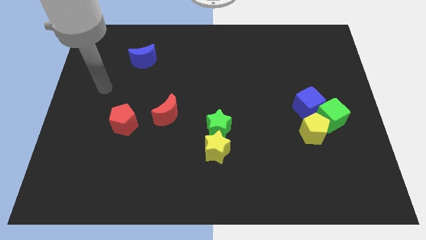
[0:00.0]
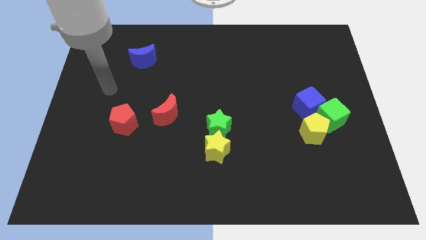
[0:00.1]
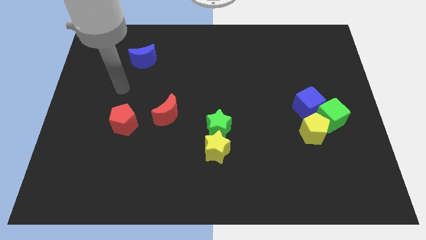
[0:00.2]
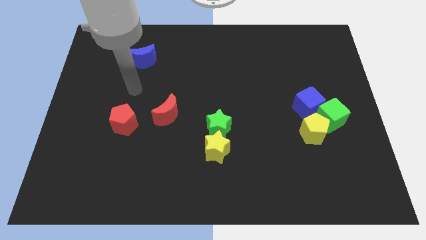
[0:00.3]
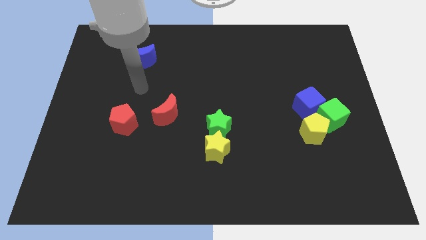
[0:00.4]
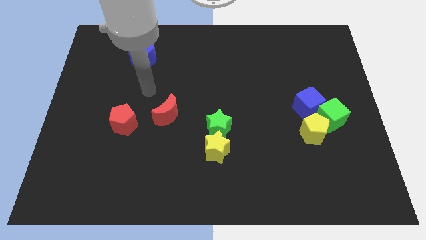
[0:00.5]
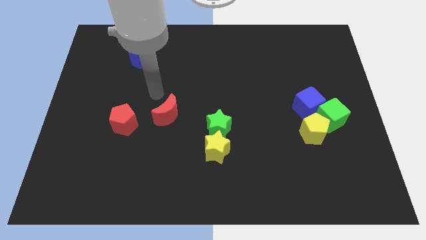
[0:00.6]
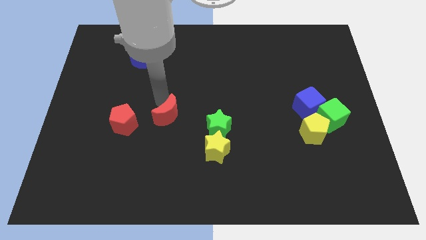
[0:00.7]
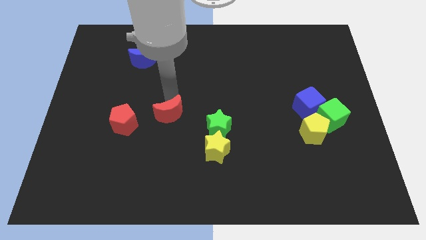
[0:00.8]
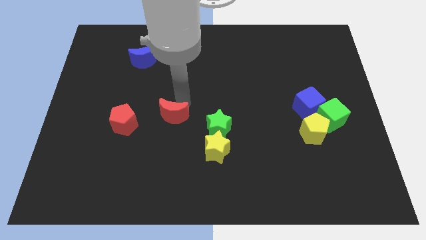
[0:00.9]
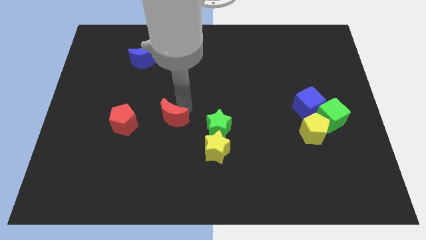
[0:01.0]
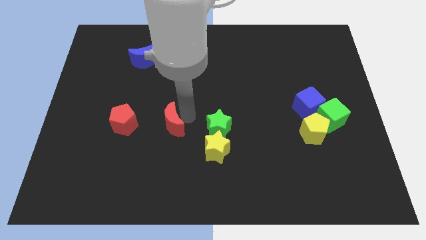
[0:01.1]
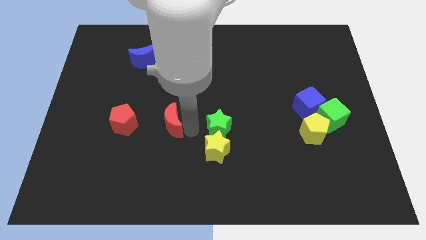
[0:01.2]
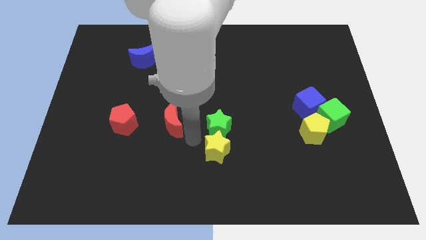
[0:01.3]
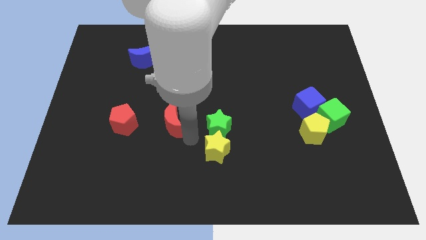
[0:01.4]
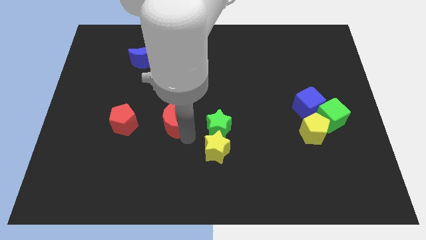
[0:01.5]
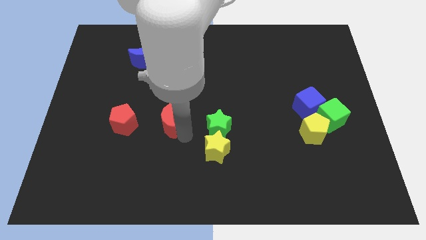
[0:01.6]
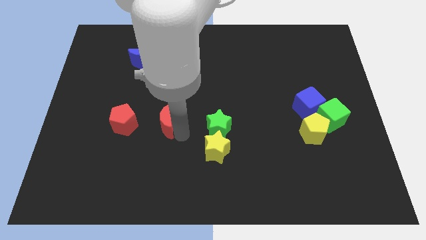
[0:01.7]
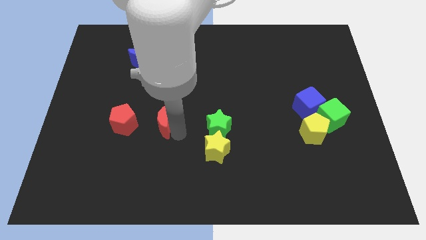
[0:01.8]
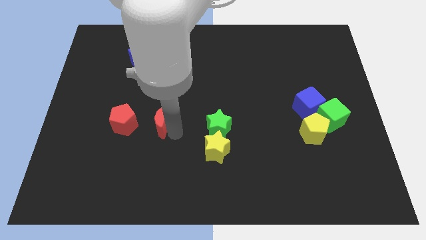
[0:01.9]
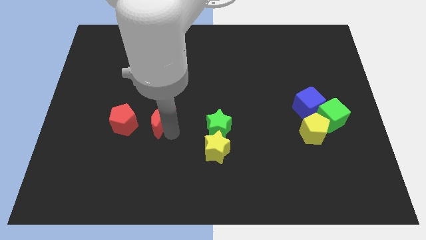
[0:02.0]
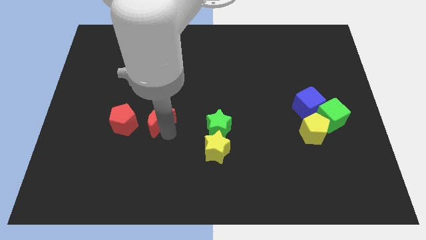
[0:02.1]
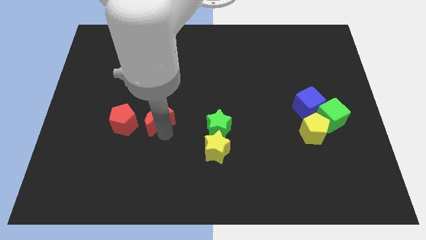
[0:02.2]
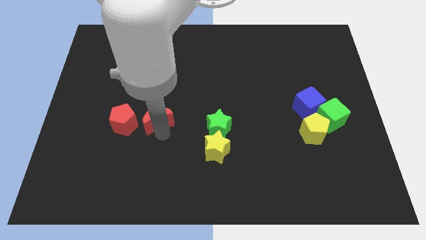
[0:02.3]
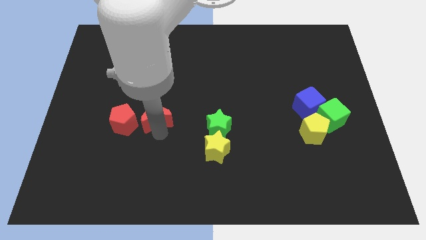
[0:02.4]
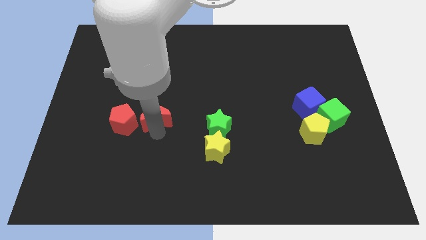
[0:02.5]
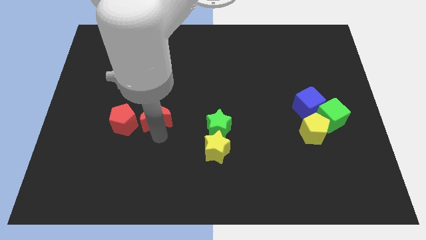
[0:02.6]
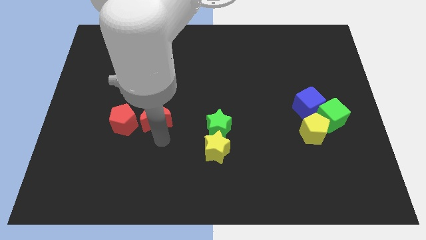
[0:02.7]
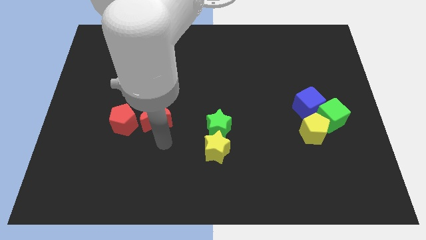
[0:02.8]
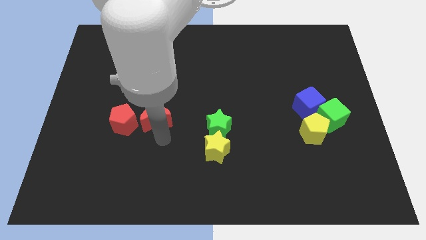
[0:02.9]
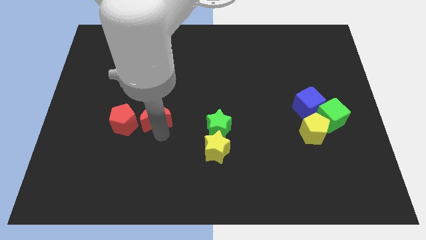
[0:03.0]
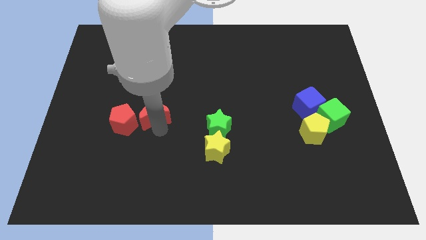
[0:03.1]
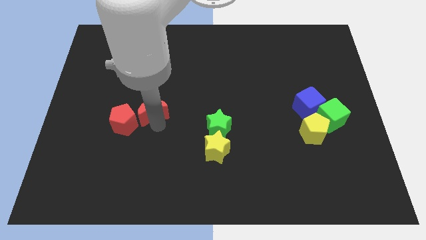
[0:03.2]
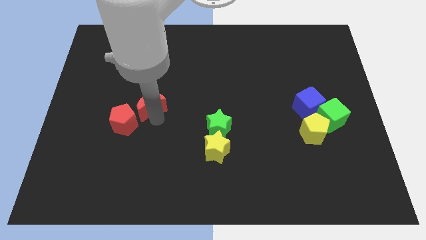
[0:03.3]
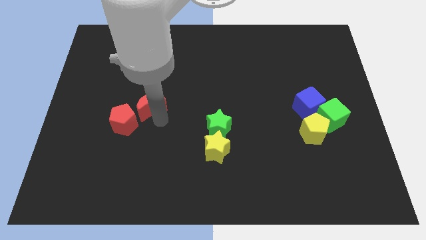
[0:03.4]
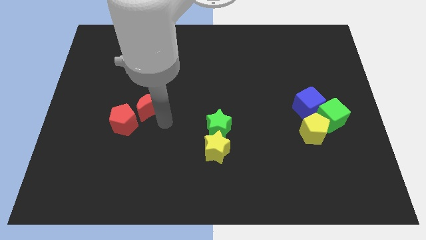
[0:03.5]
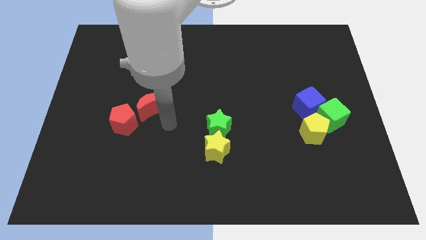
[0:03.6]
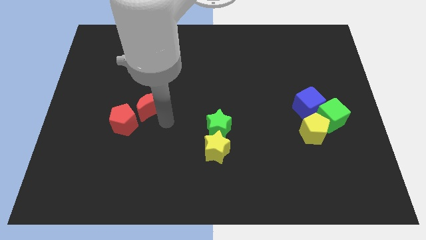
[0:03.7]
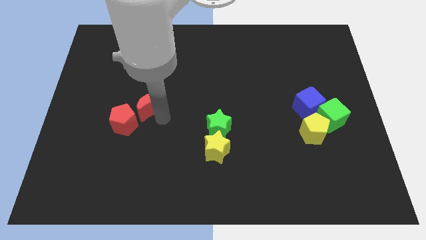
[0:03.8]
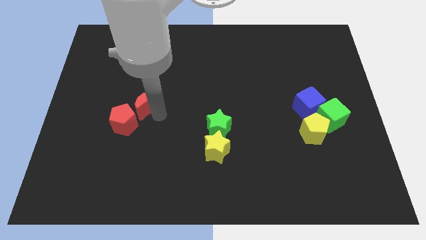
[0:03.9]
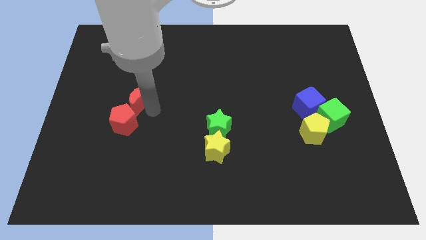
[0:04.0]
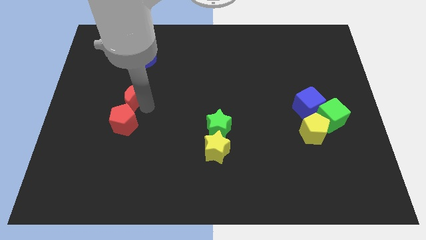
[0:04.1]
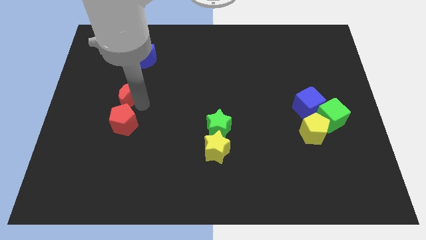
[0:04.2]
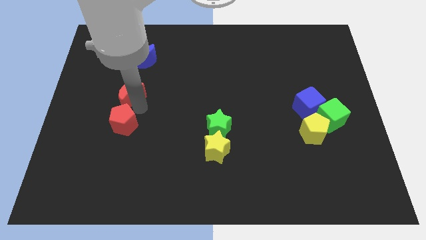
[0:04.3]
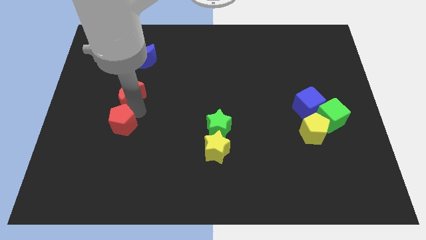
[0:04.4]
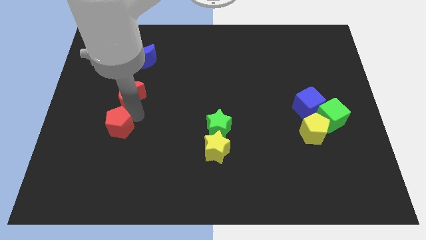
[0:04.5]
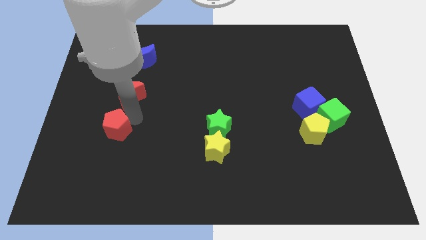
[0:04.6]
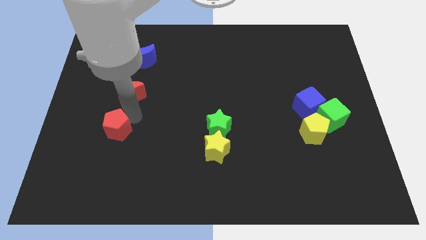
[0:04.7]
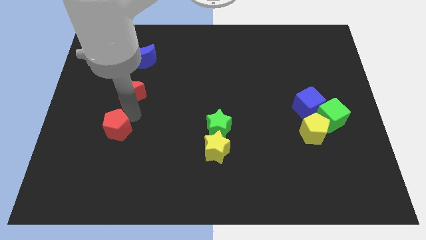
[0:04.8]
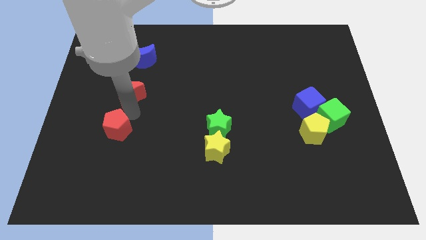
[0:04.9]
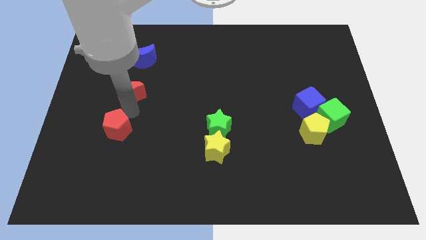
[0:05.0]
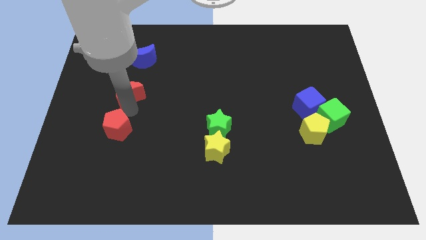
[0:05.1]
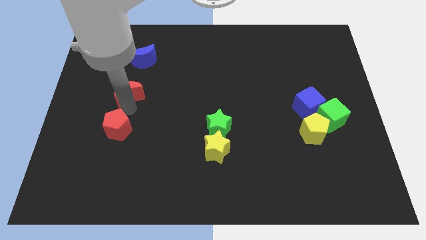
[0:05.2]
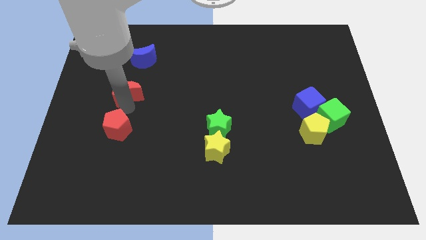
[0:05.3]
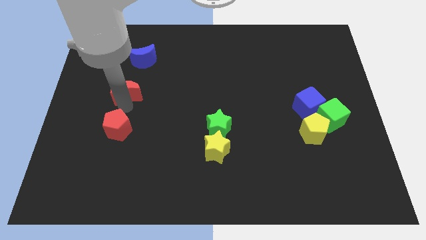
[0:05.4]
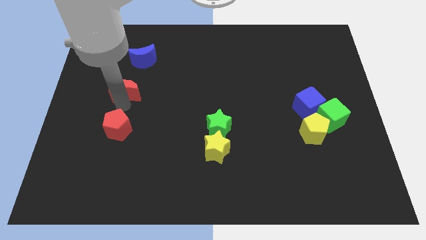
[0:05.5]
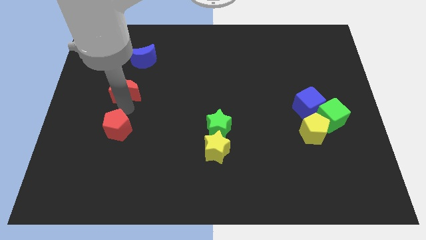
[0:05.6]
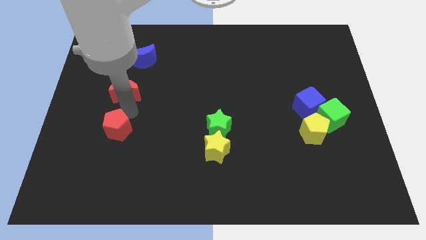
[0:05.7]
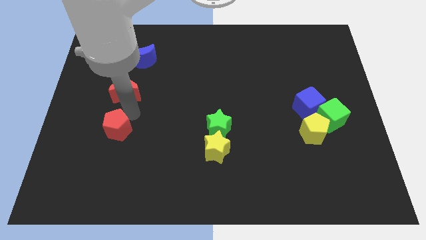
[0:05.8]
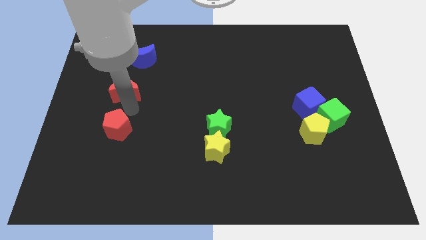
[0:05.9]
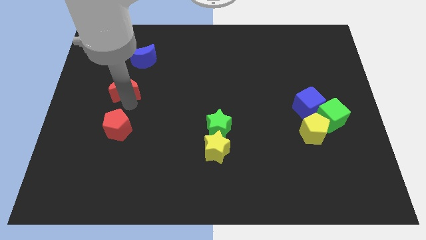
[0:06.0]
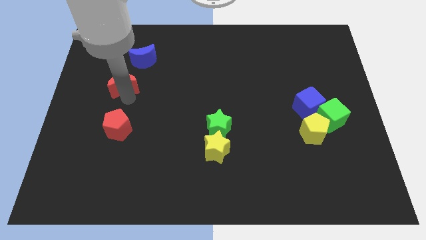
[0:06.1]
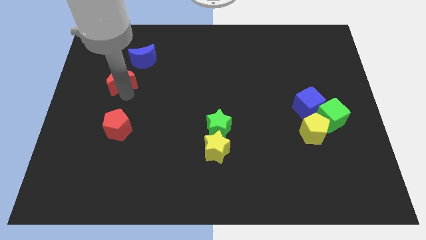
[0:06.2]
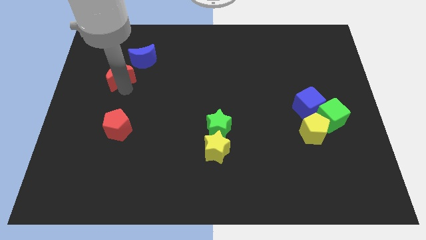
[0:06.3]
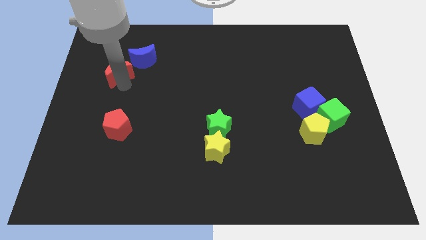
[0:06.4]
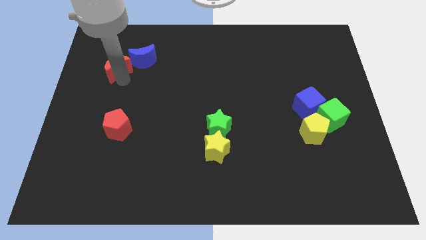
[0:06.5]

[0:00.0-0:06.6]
put the red moon to the left of the blue moon

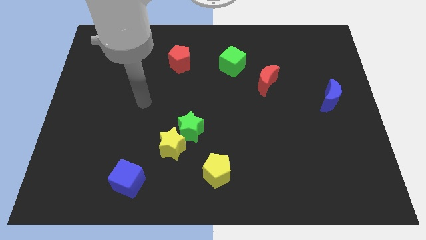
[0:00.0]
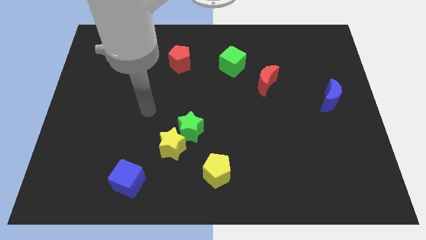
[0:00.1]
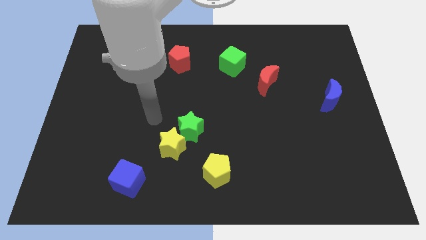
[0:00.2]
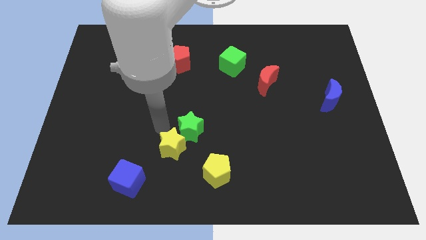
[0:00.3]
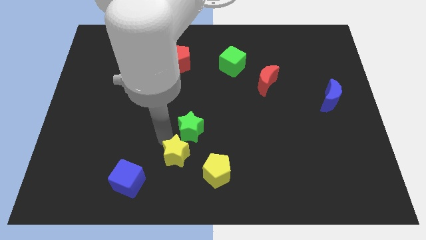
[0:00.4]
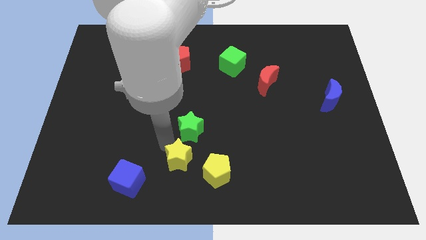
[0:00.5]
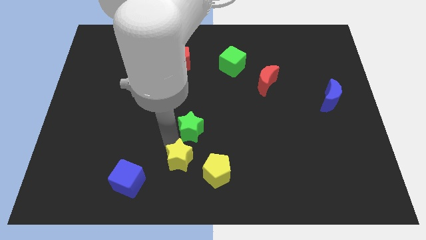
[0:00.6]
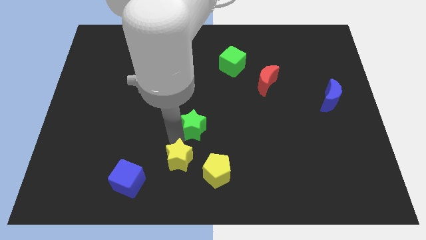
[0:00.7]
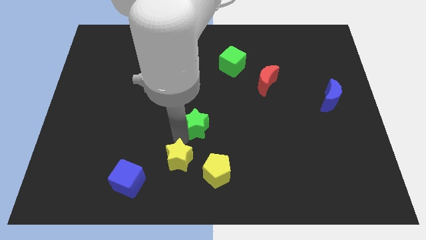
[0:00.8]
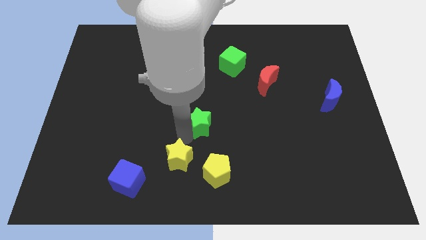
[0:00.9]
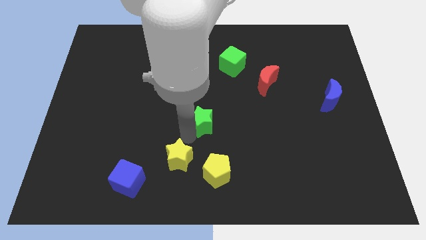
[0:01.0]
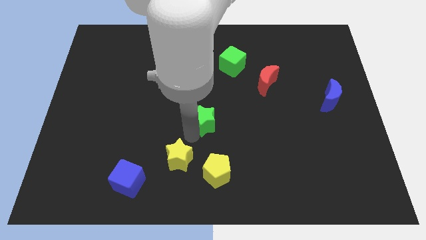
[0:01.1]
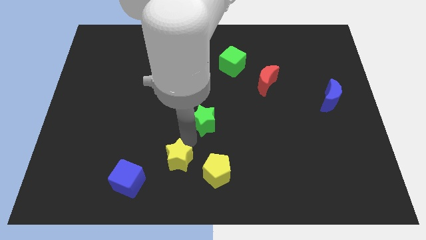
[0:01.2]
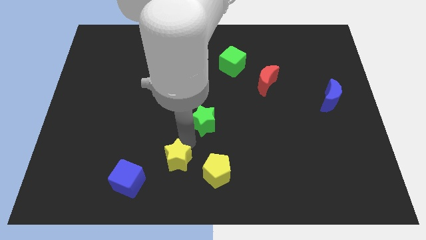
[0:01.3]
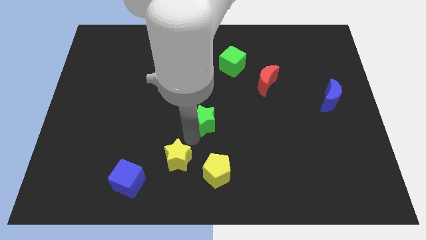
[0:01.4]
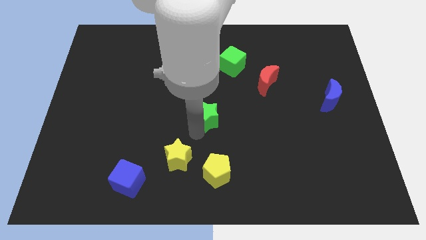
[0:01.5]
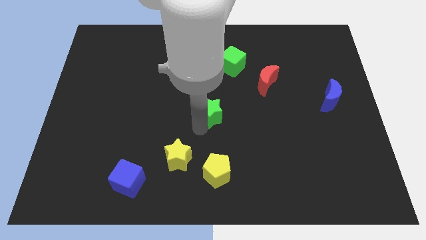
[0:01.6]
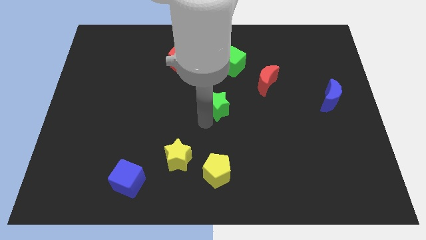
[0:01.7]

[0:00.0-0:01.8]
move the green star below the green cube
